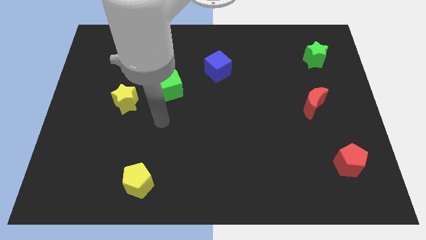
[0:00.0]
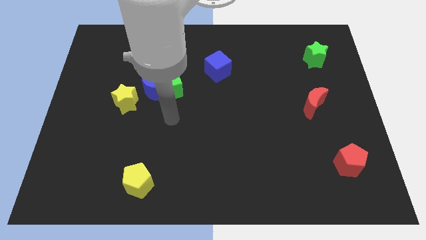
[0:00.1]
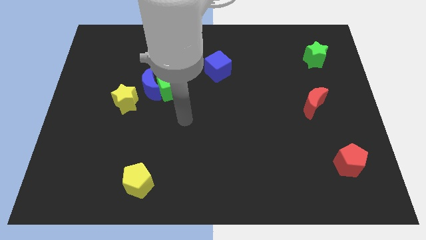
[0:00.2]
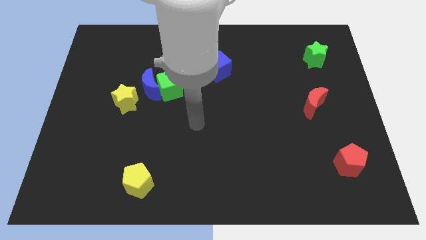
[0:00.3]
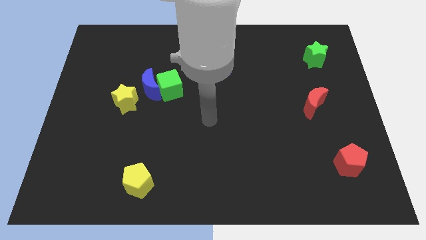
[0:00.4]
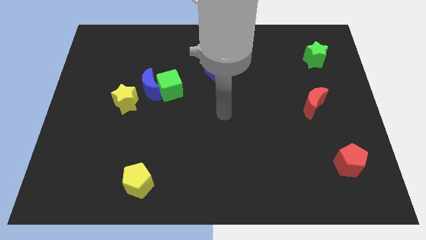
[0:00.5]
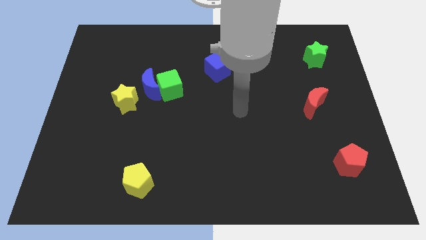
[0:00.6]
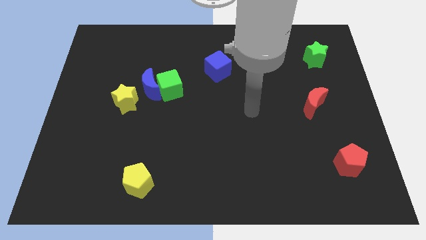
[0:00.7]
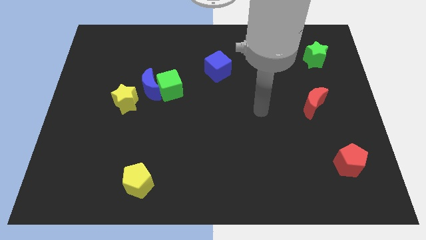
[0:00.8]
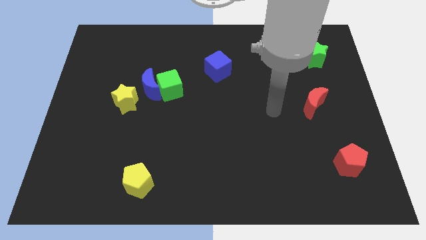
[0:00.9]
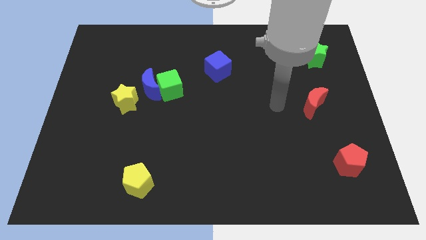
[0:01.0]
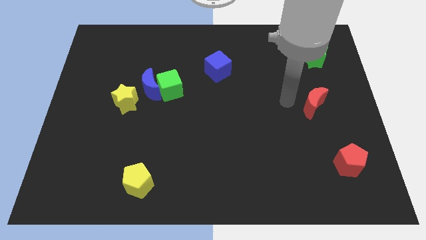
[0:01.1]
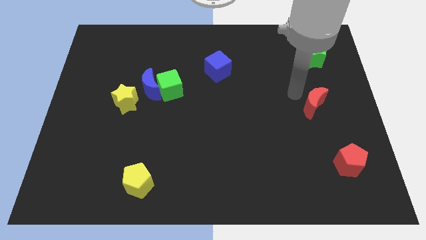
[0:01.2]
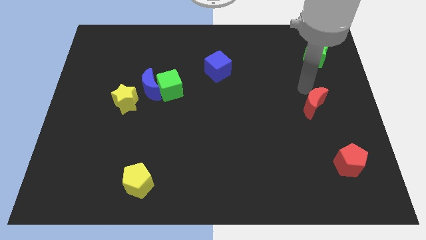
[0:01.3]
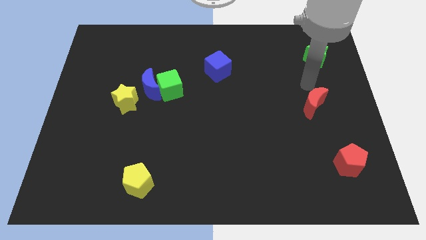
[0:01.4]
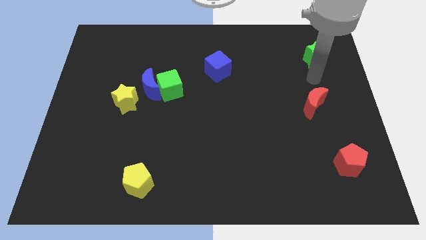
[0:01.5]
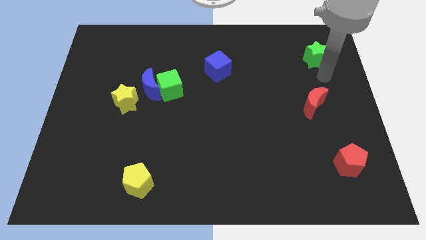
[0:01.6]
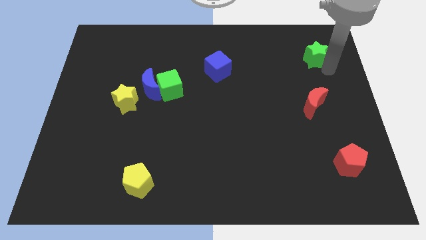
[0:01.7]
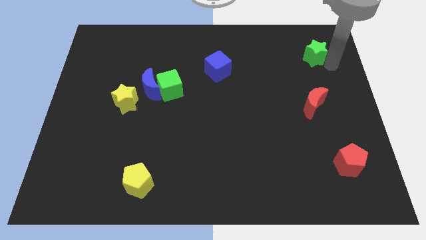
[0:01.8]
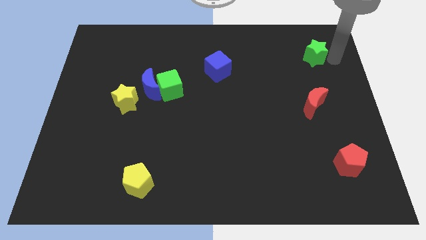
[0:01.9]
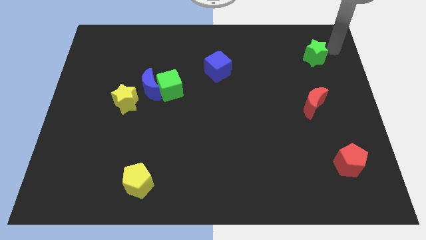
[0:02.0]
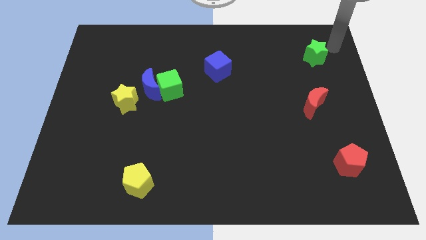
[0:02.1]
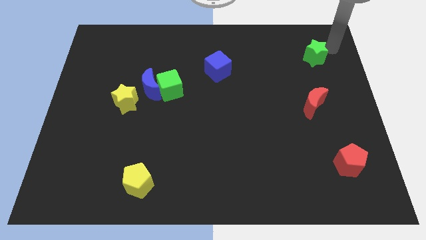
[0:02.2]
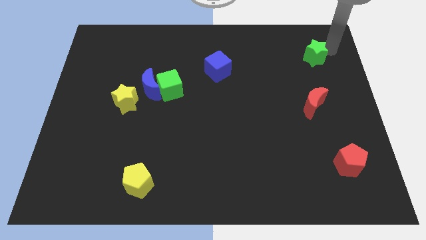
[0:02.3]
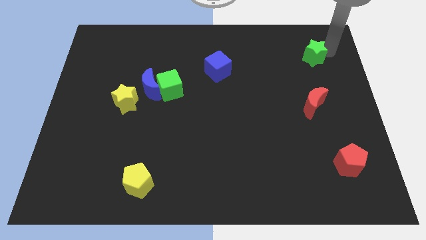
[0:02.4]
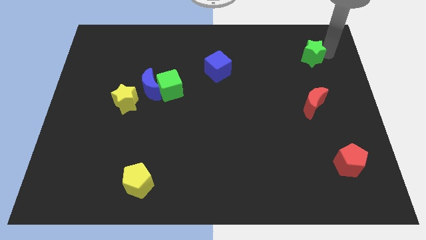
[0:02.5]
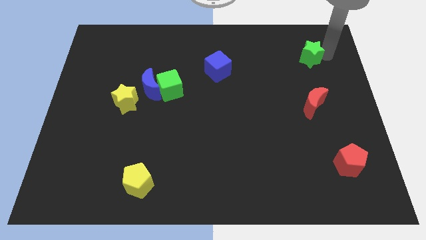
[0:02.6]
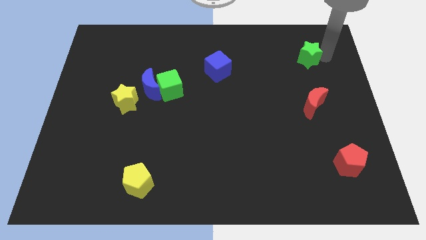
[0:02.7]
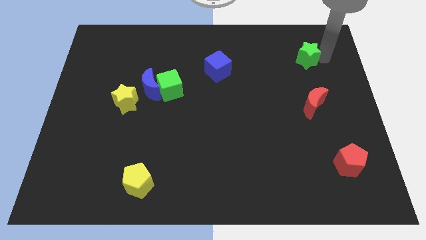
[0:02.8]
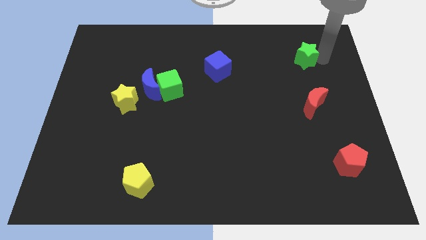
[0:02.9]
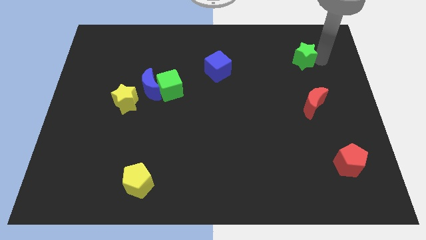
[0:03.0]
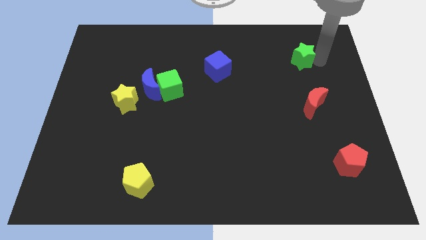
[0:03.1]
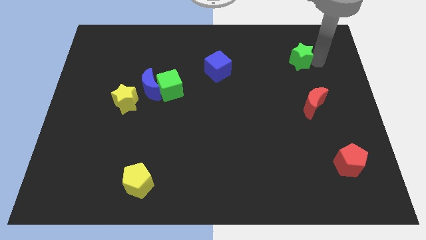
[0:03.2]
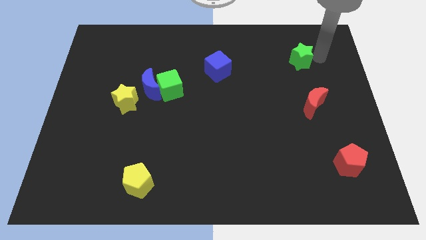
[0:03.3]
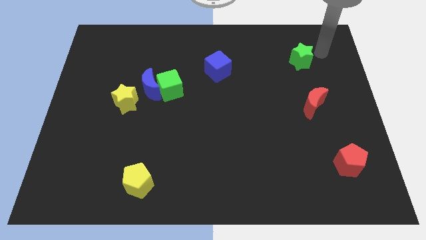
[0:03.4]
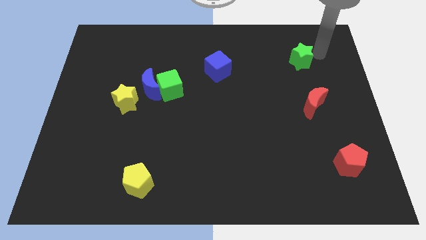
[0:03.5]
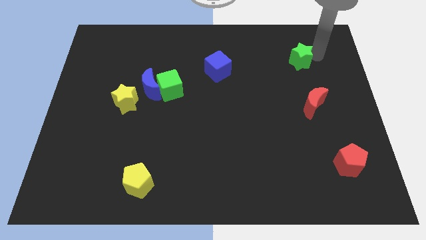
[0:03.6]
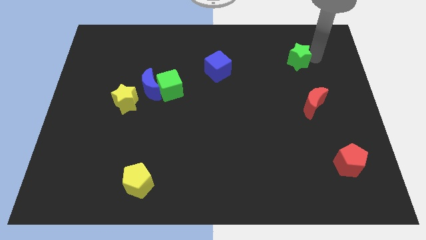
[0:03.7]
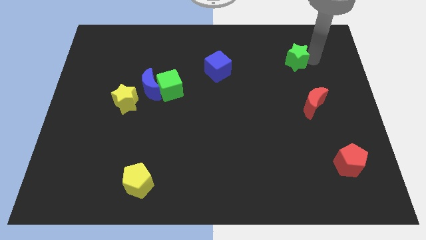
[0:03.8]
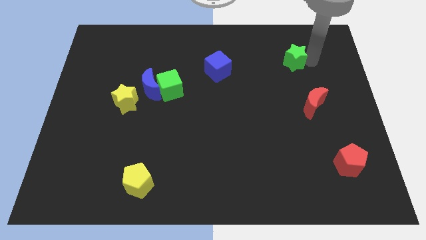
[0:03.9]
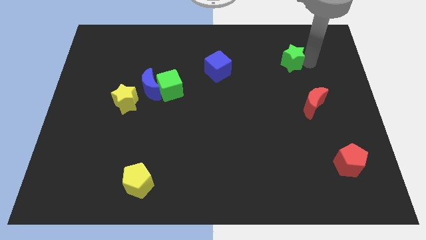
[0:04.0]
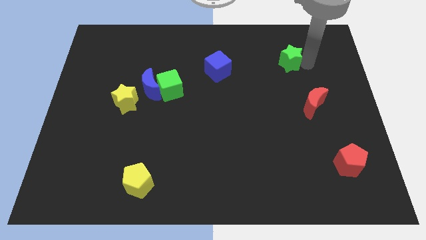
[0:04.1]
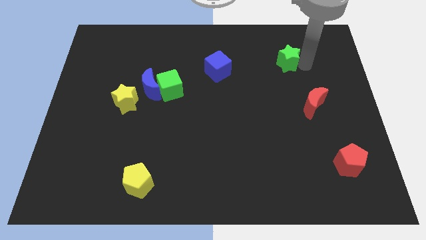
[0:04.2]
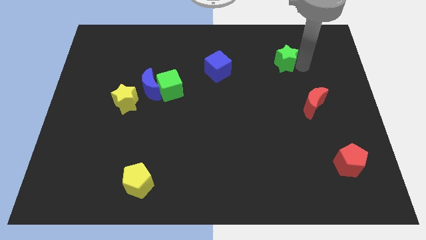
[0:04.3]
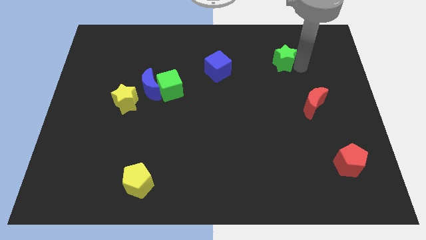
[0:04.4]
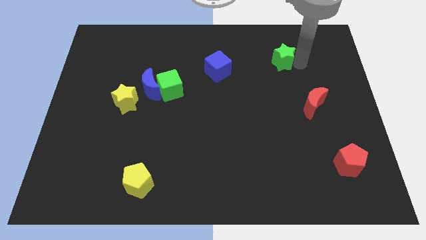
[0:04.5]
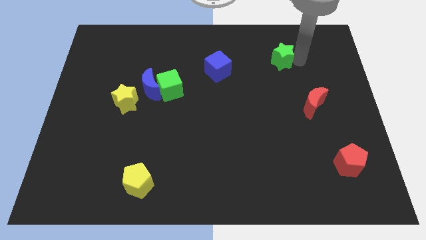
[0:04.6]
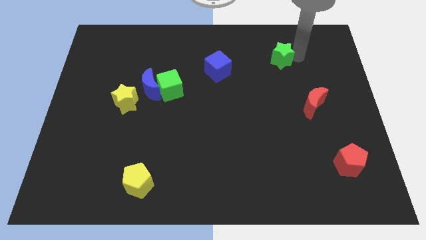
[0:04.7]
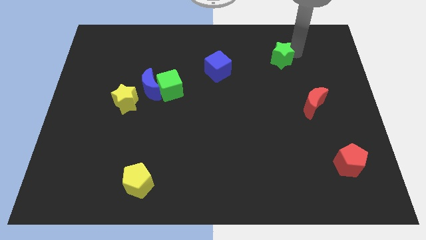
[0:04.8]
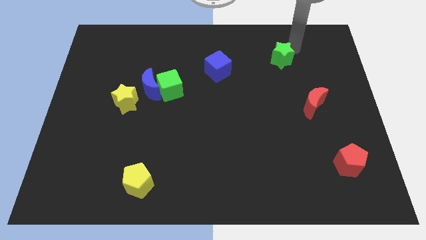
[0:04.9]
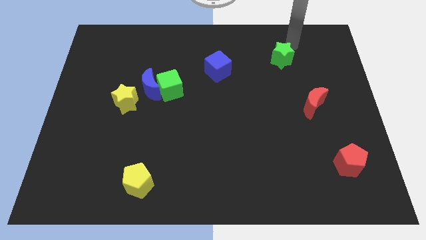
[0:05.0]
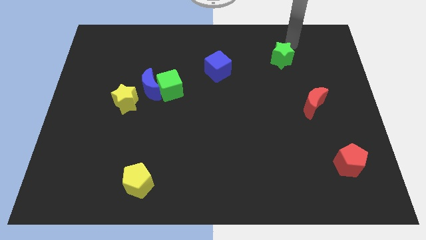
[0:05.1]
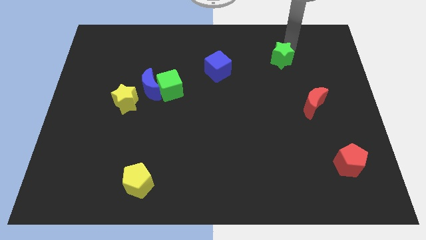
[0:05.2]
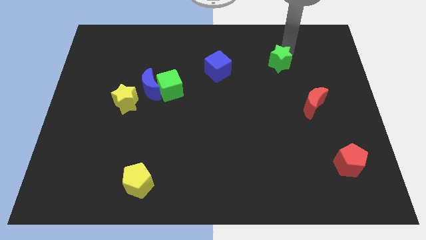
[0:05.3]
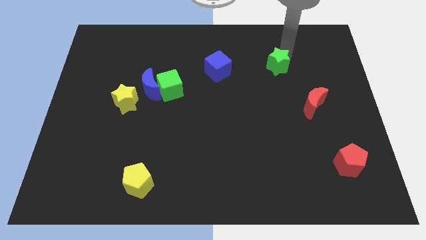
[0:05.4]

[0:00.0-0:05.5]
slide the green star right of the blue cube

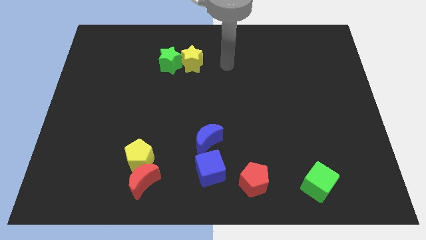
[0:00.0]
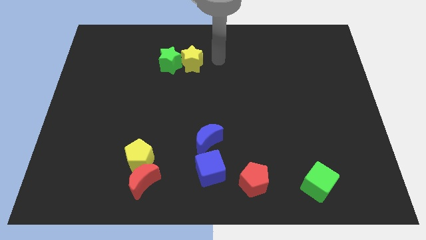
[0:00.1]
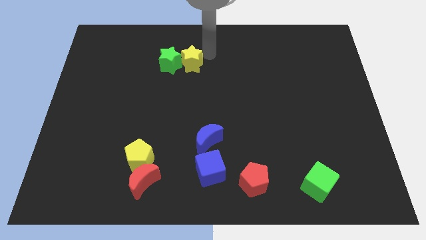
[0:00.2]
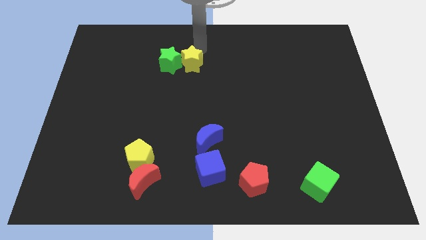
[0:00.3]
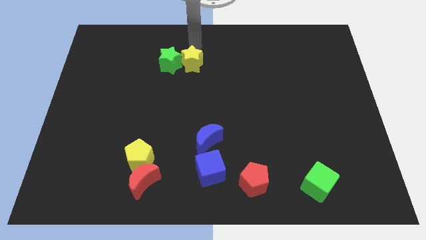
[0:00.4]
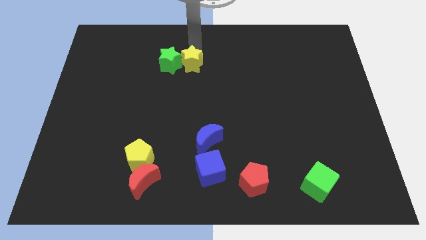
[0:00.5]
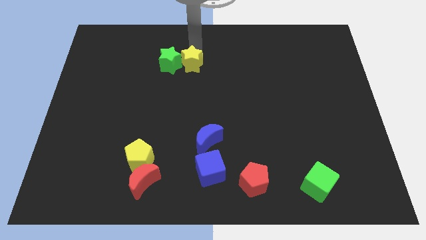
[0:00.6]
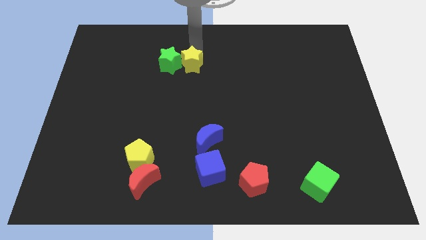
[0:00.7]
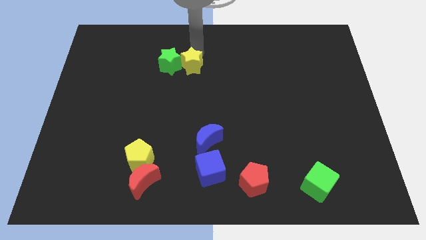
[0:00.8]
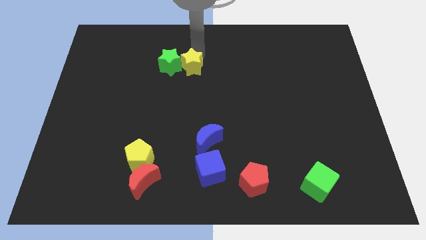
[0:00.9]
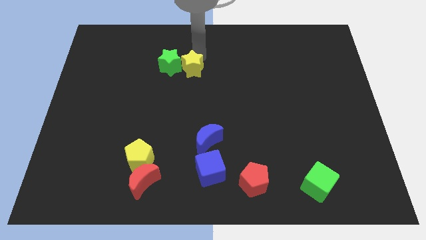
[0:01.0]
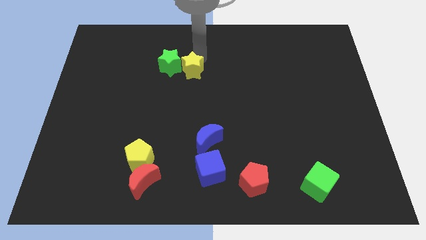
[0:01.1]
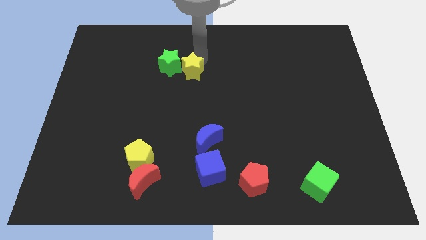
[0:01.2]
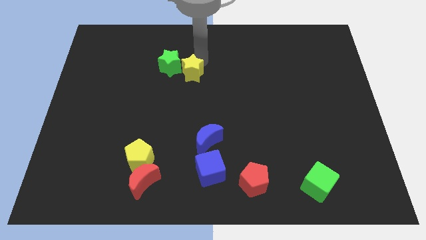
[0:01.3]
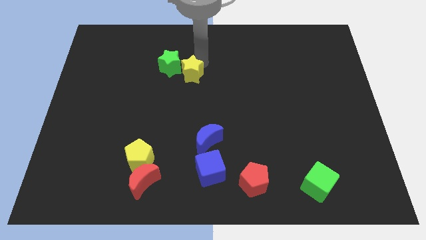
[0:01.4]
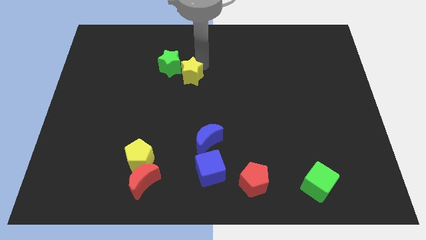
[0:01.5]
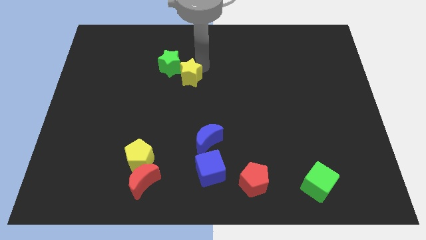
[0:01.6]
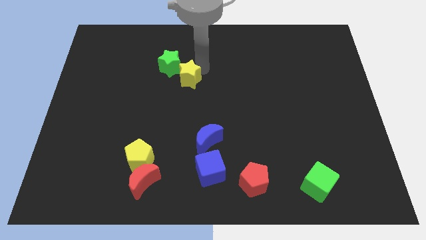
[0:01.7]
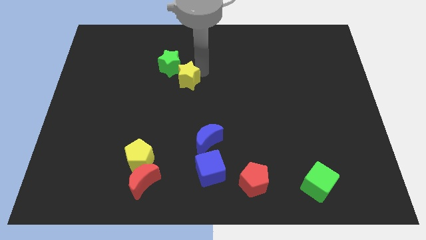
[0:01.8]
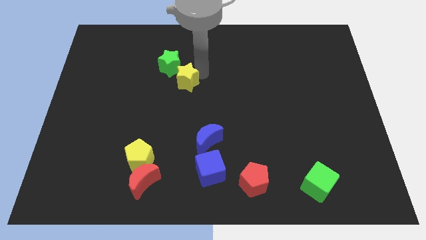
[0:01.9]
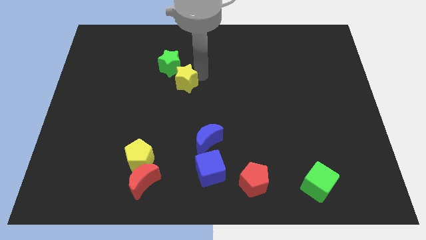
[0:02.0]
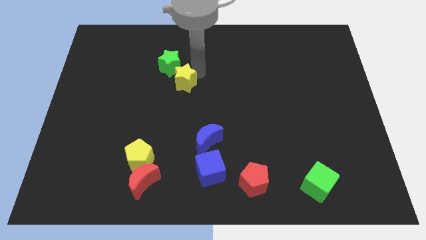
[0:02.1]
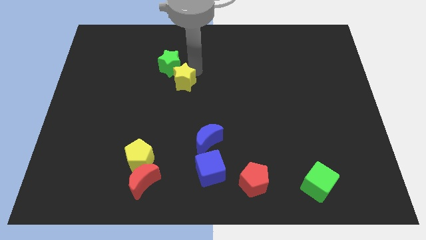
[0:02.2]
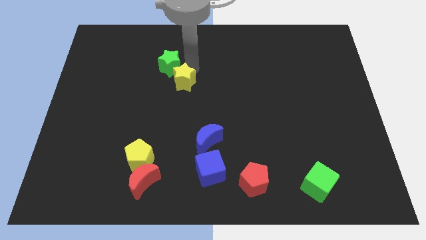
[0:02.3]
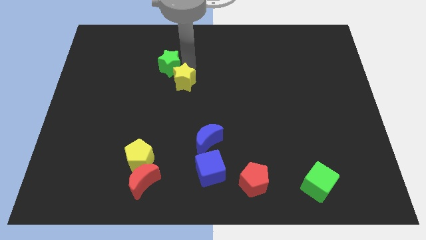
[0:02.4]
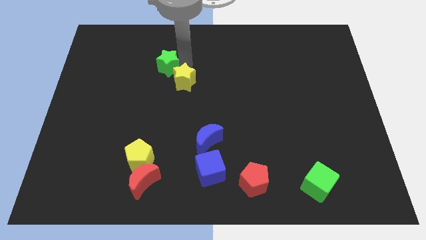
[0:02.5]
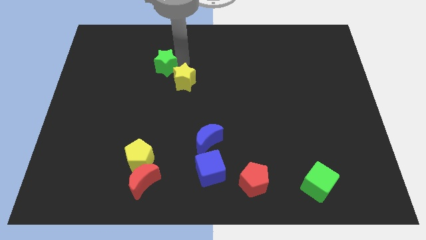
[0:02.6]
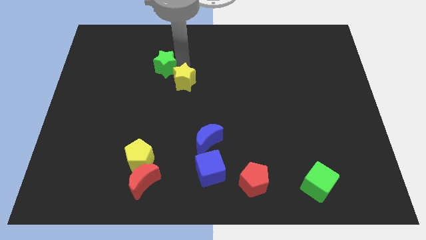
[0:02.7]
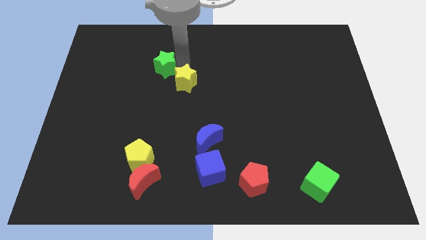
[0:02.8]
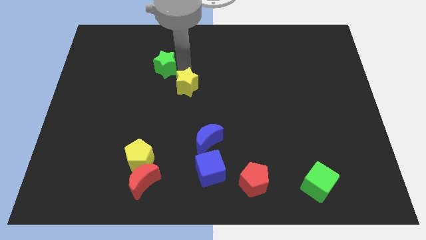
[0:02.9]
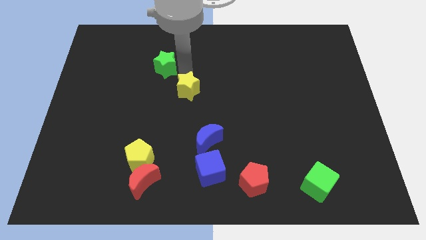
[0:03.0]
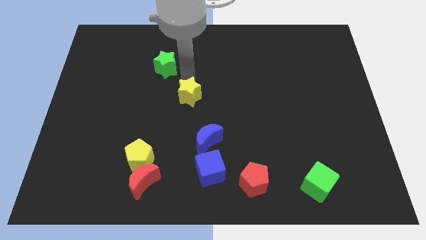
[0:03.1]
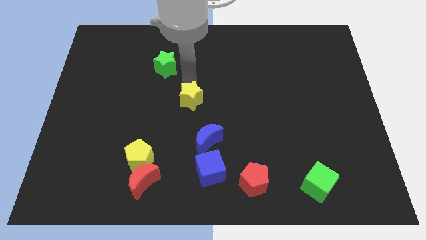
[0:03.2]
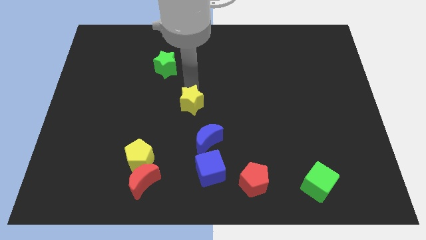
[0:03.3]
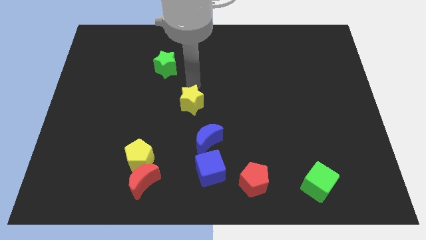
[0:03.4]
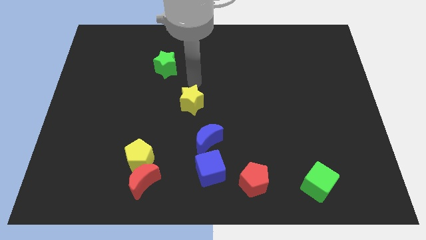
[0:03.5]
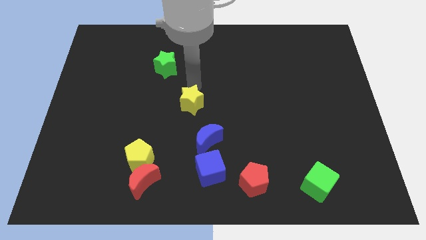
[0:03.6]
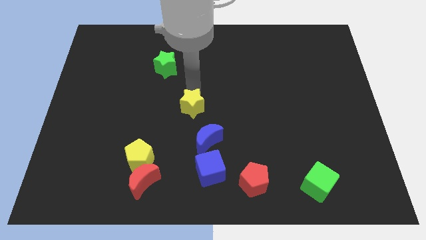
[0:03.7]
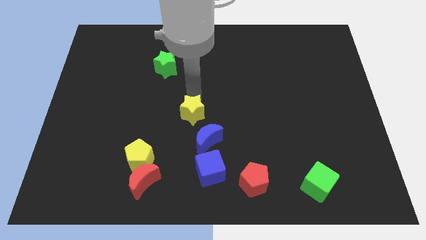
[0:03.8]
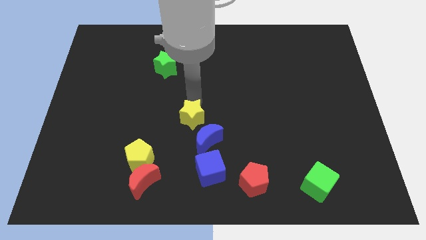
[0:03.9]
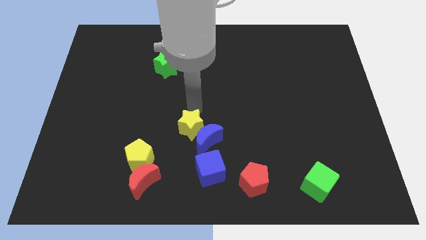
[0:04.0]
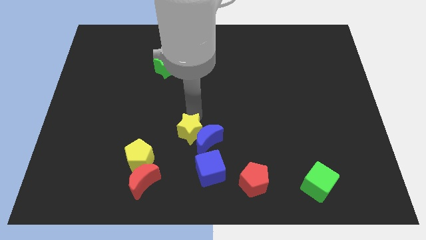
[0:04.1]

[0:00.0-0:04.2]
slide the yellow star diagonally up and to the left of the blue cube
